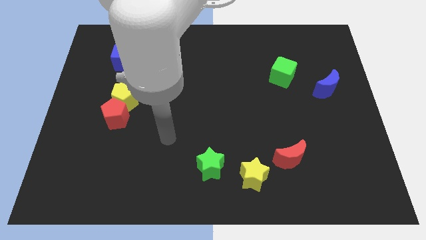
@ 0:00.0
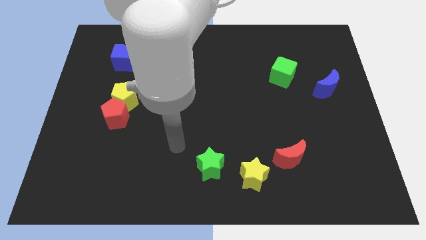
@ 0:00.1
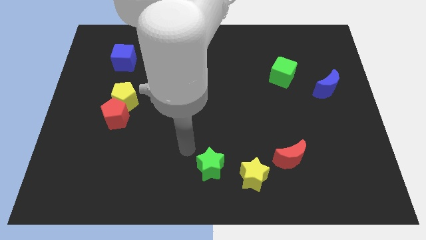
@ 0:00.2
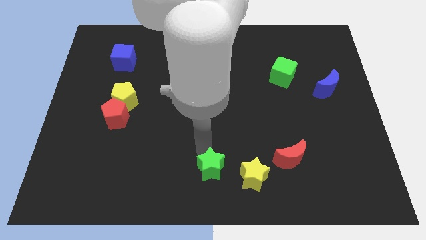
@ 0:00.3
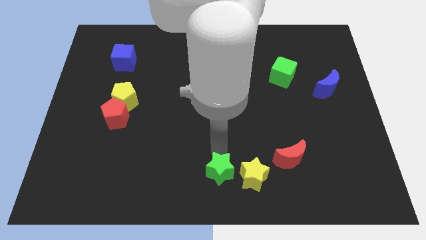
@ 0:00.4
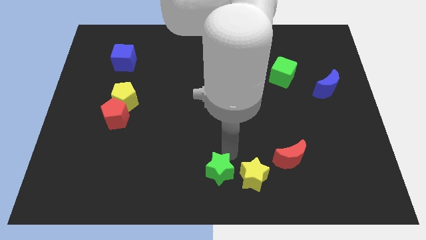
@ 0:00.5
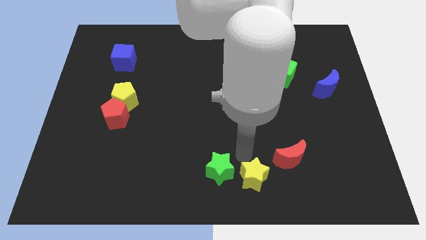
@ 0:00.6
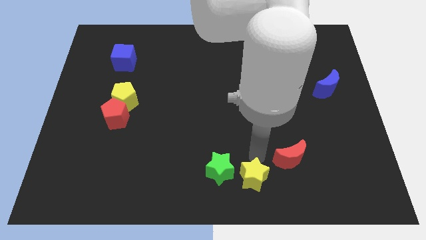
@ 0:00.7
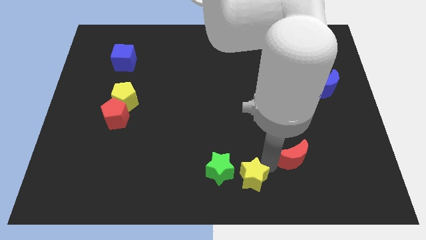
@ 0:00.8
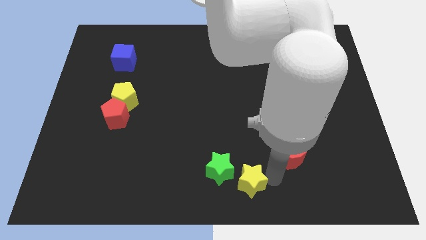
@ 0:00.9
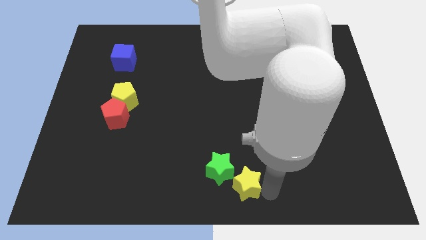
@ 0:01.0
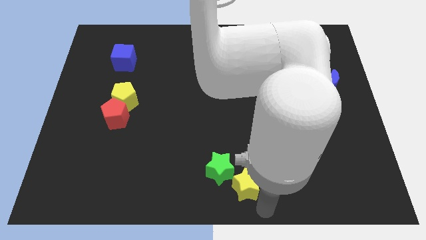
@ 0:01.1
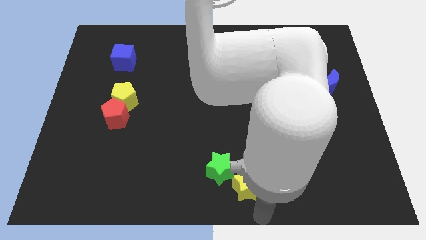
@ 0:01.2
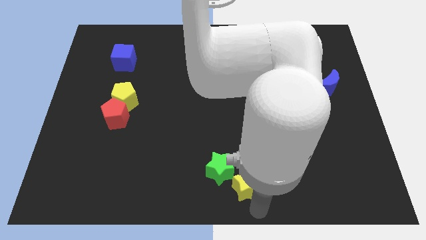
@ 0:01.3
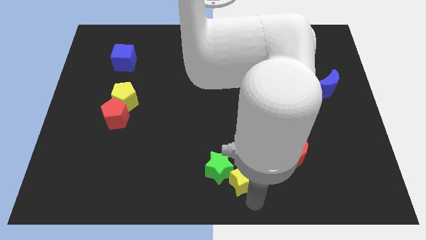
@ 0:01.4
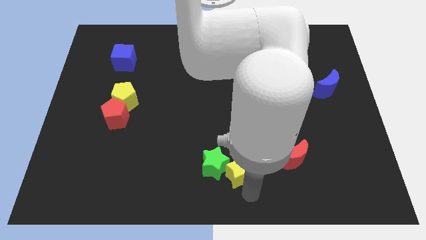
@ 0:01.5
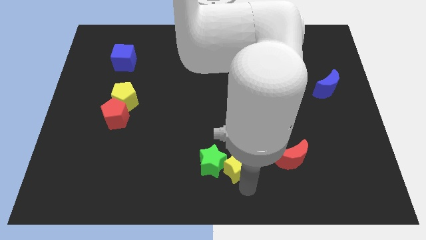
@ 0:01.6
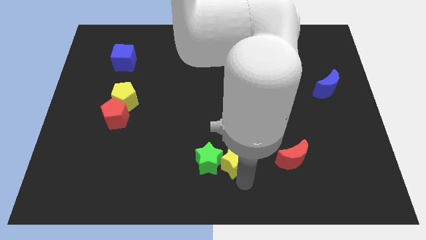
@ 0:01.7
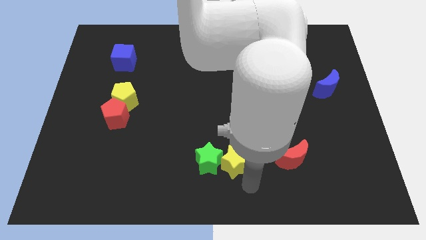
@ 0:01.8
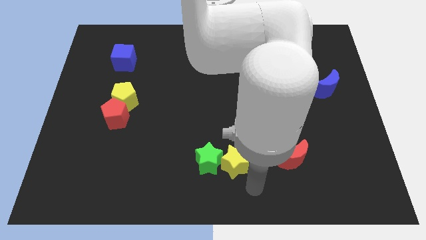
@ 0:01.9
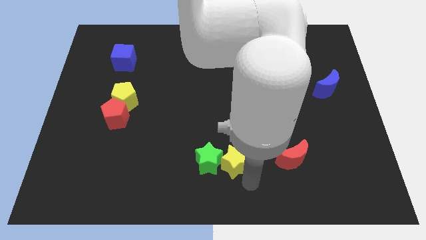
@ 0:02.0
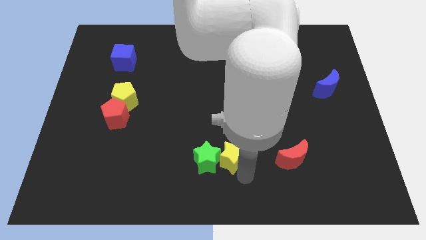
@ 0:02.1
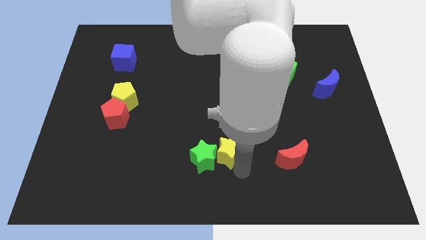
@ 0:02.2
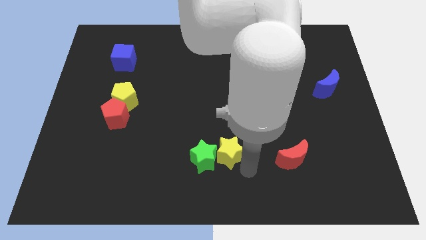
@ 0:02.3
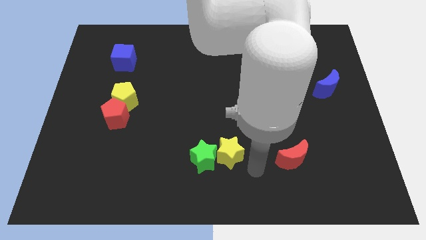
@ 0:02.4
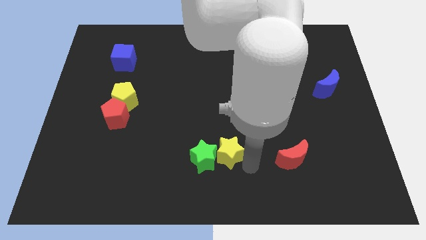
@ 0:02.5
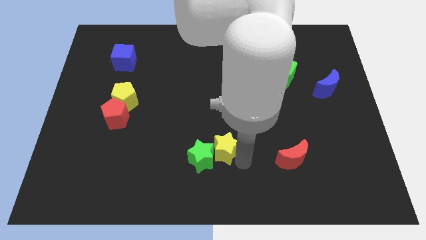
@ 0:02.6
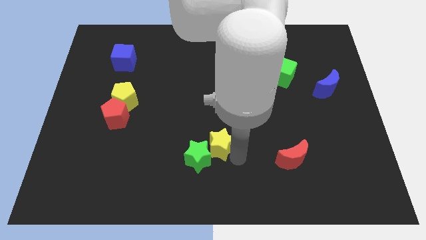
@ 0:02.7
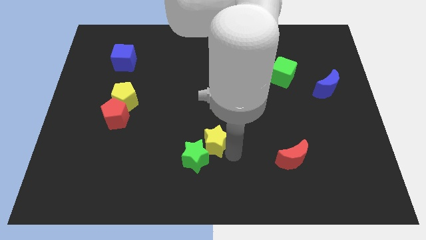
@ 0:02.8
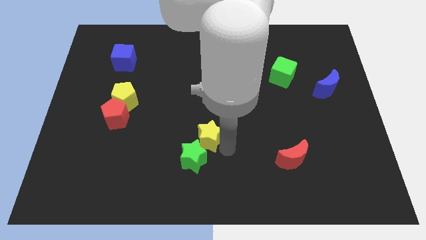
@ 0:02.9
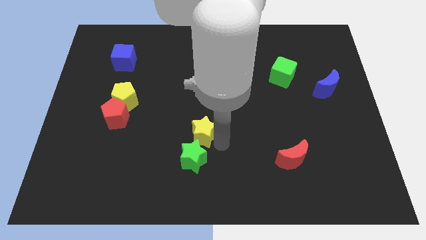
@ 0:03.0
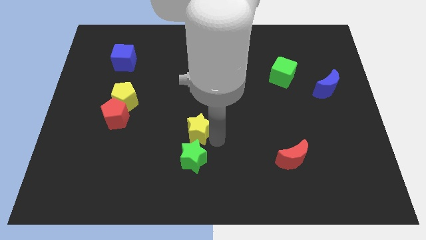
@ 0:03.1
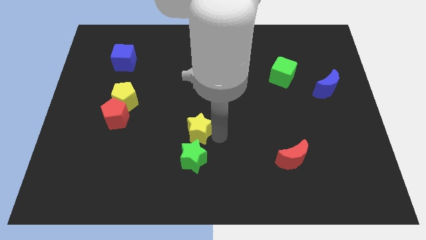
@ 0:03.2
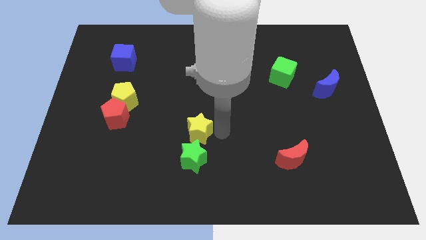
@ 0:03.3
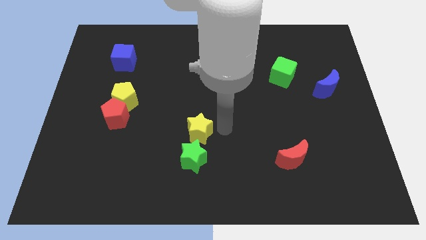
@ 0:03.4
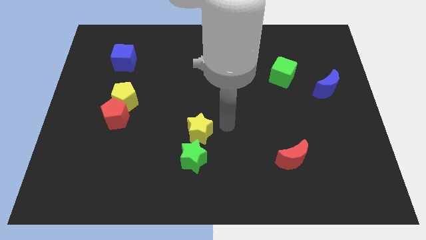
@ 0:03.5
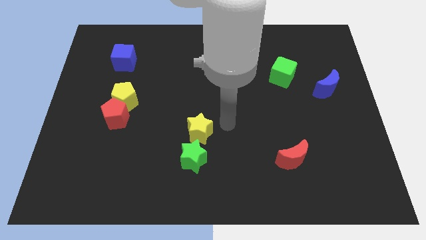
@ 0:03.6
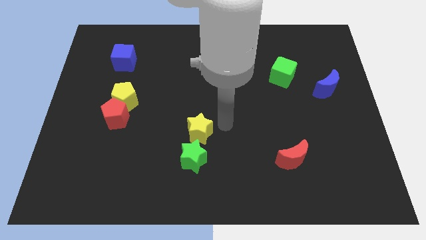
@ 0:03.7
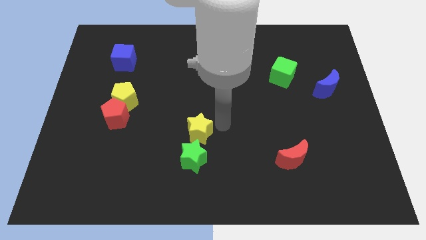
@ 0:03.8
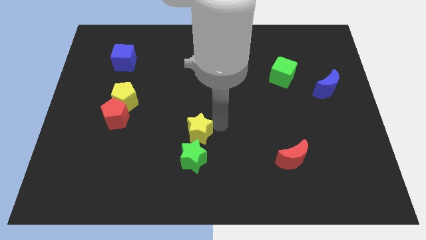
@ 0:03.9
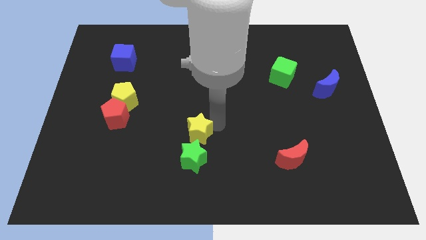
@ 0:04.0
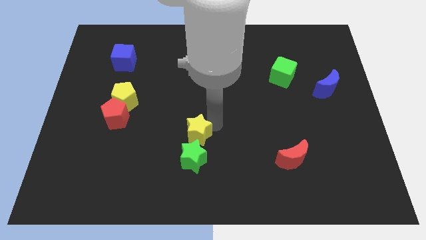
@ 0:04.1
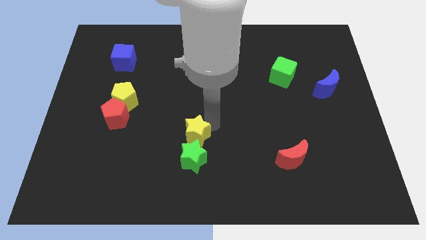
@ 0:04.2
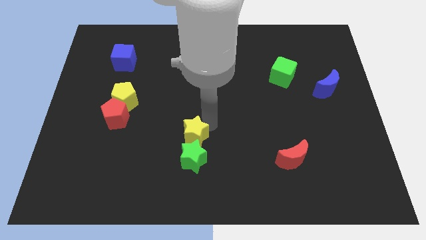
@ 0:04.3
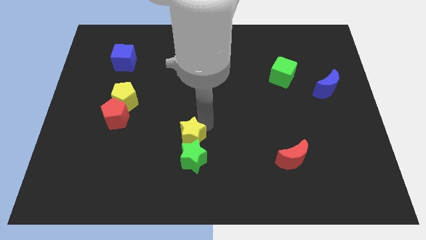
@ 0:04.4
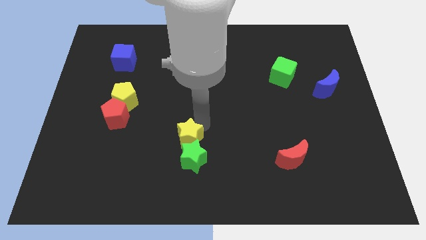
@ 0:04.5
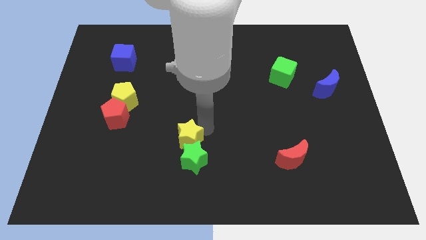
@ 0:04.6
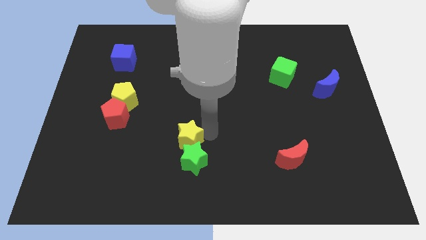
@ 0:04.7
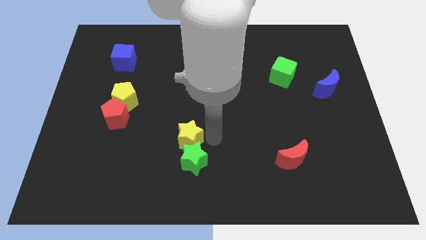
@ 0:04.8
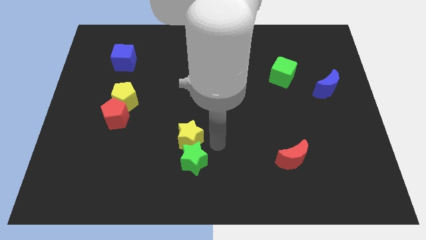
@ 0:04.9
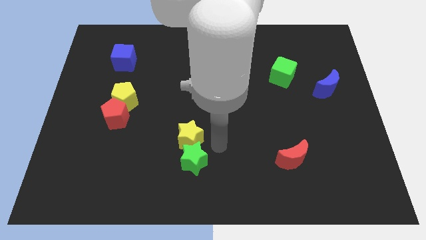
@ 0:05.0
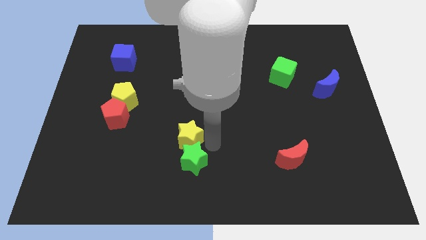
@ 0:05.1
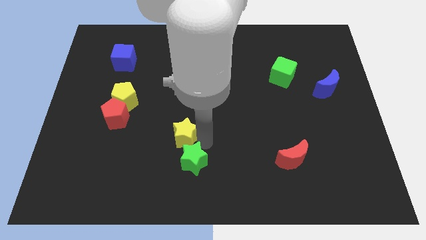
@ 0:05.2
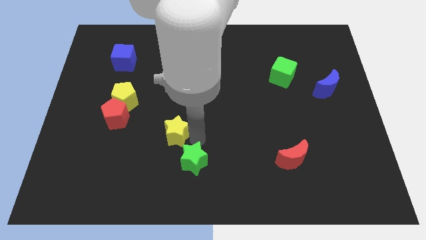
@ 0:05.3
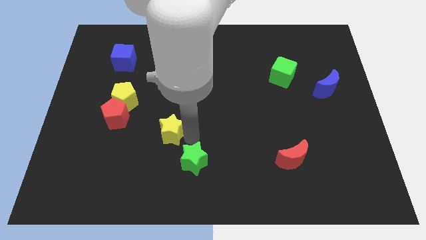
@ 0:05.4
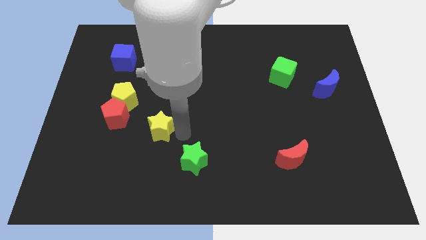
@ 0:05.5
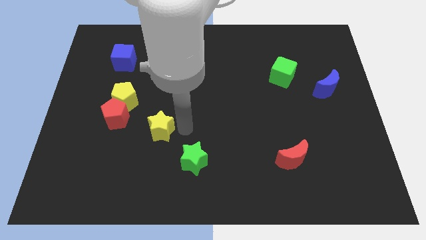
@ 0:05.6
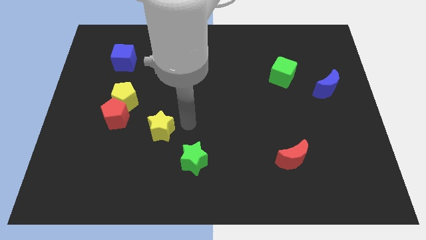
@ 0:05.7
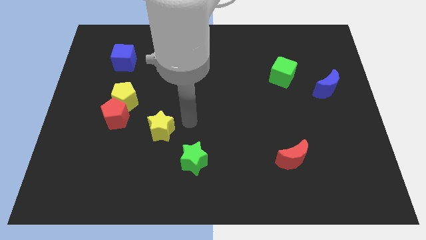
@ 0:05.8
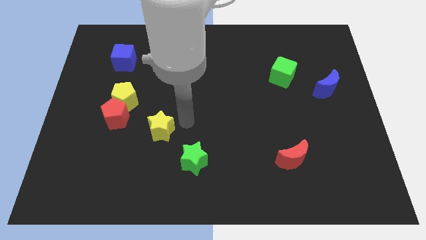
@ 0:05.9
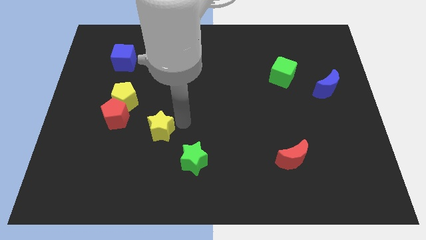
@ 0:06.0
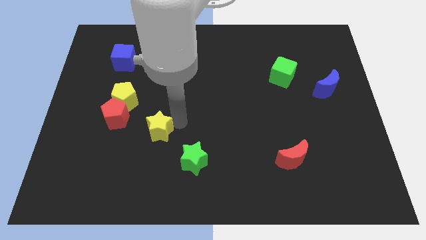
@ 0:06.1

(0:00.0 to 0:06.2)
put the yellow star diagonally down and to the right of the red pentagon

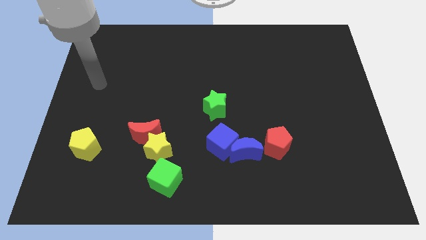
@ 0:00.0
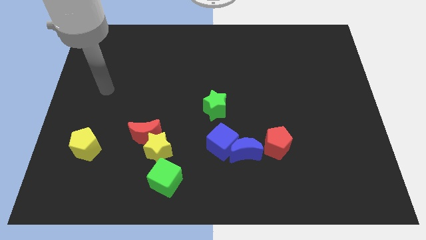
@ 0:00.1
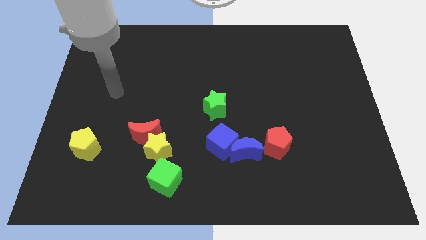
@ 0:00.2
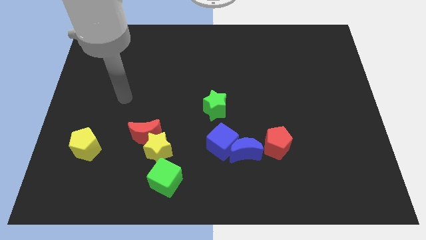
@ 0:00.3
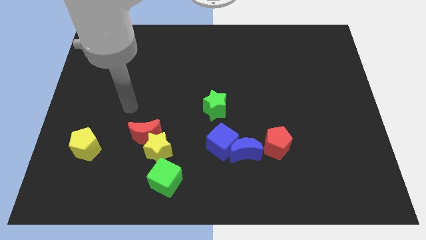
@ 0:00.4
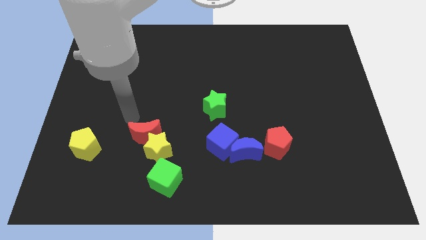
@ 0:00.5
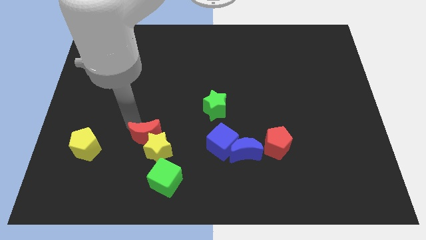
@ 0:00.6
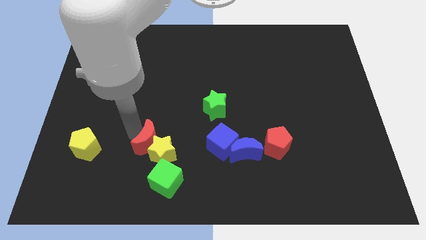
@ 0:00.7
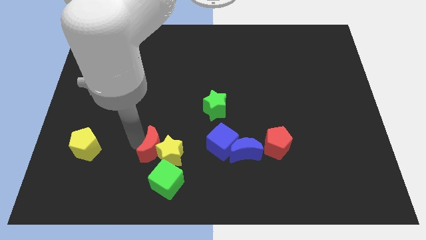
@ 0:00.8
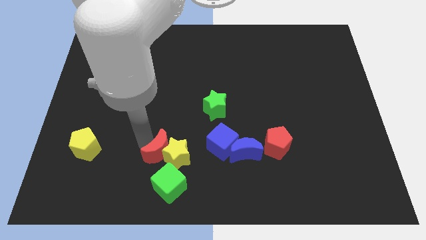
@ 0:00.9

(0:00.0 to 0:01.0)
move the yellow star to the bottom left side of the blue cube

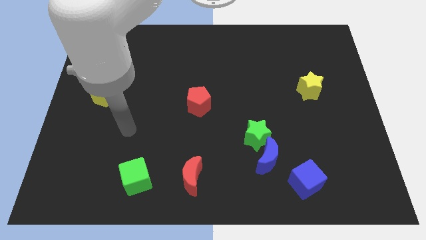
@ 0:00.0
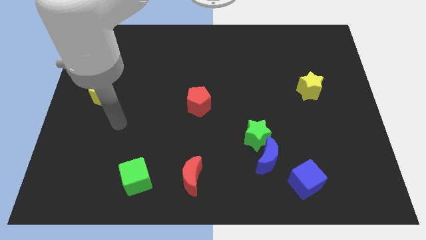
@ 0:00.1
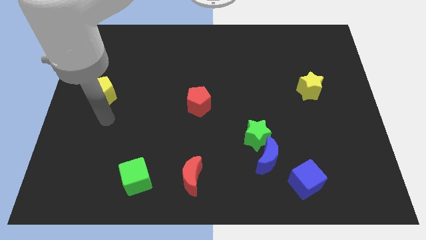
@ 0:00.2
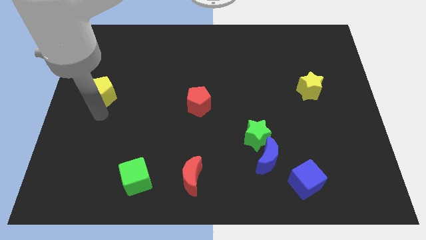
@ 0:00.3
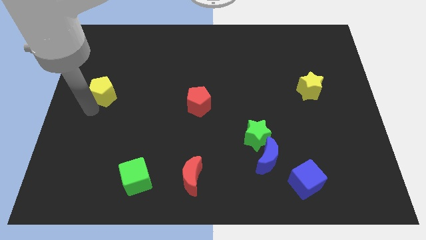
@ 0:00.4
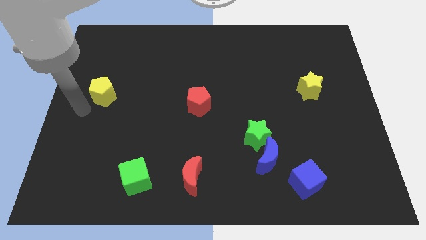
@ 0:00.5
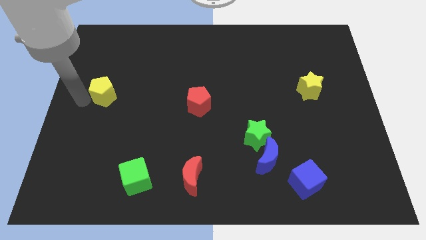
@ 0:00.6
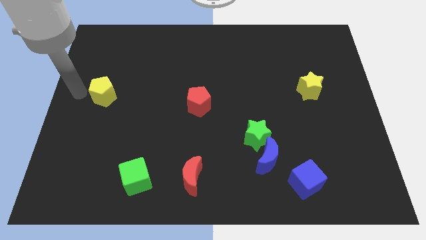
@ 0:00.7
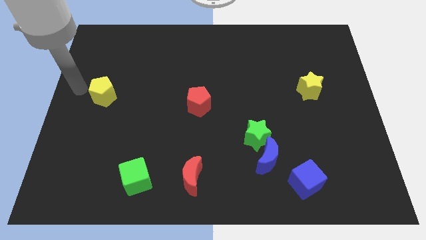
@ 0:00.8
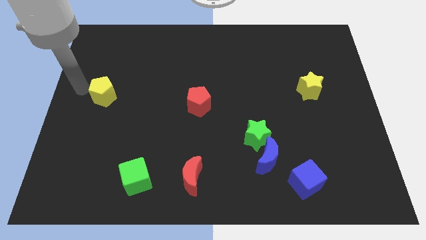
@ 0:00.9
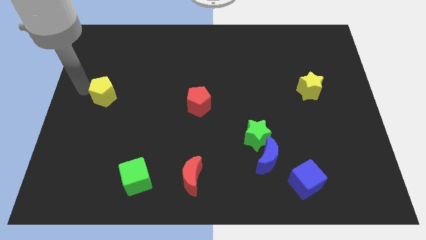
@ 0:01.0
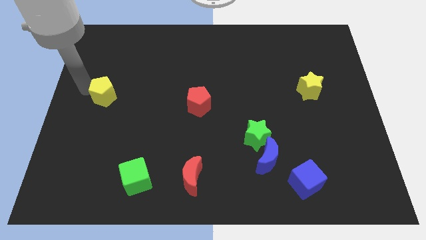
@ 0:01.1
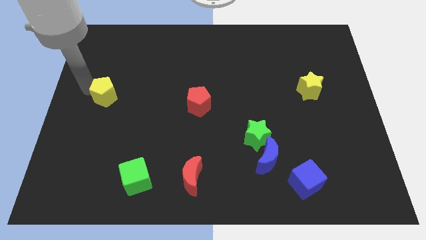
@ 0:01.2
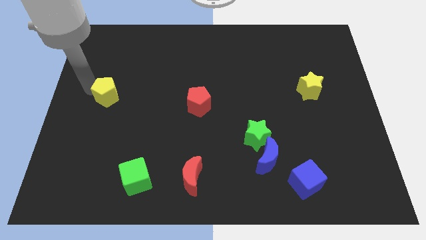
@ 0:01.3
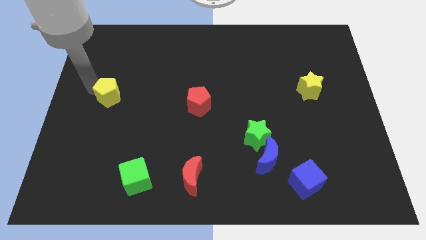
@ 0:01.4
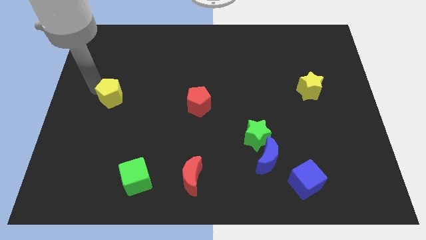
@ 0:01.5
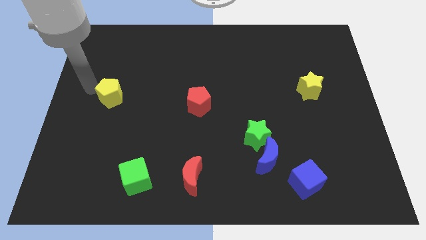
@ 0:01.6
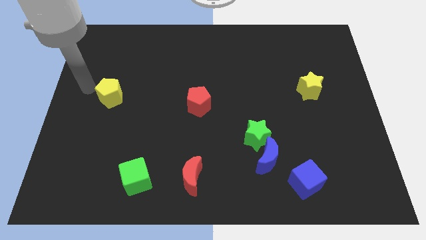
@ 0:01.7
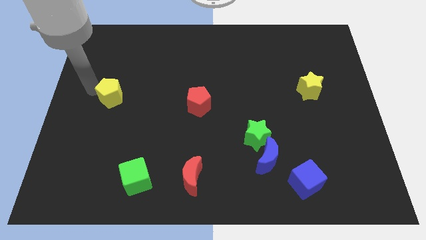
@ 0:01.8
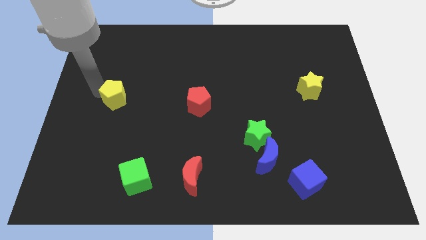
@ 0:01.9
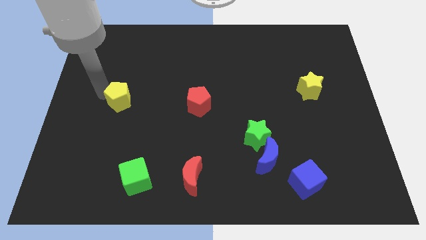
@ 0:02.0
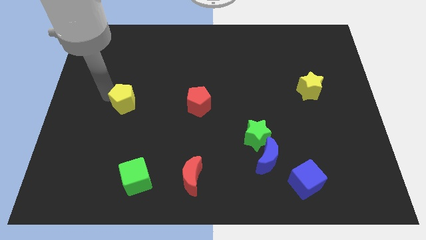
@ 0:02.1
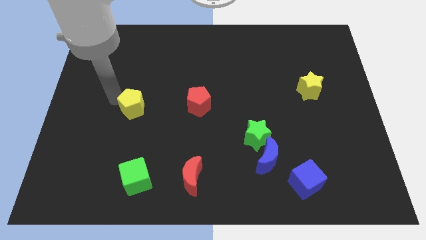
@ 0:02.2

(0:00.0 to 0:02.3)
put the yellow pentagon left of the red pentagon
